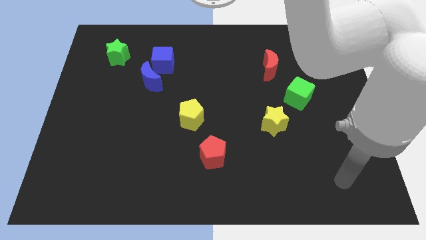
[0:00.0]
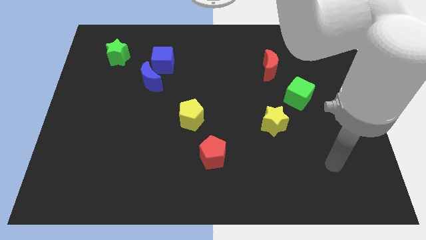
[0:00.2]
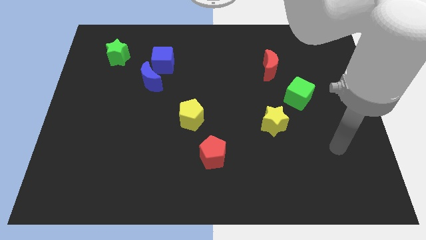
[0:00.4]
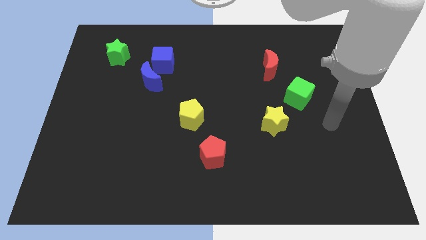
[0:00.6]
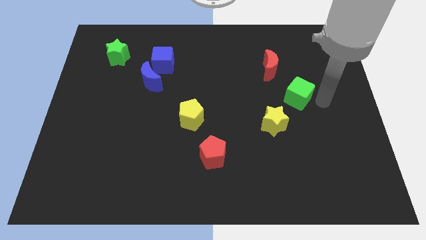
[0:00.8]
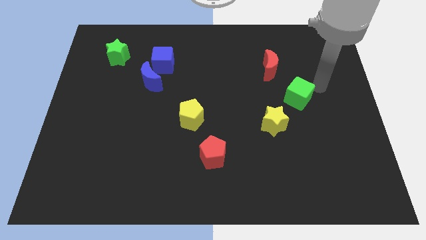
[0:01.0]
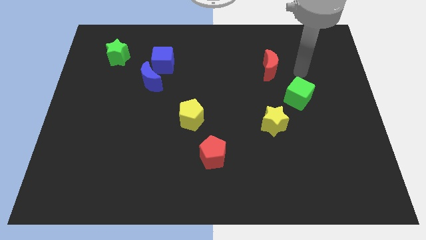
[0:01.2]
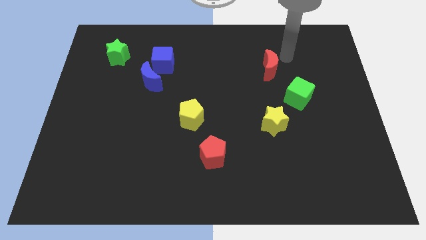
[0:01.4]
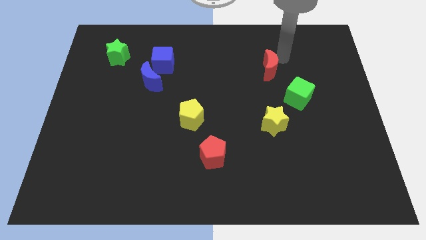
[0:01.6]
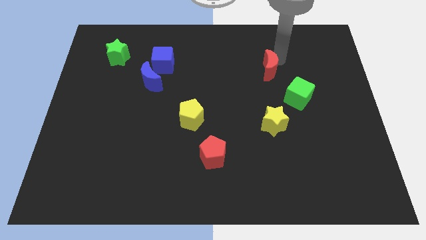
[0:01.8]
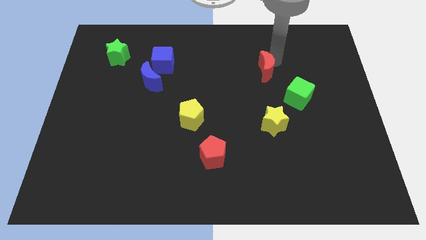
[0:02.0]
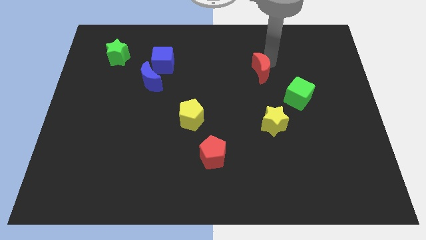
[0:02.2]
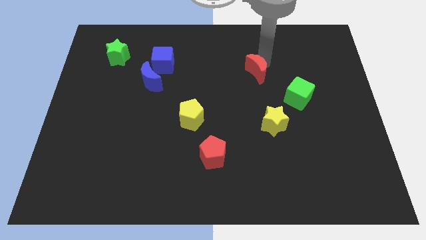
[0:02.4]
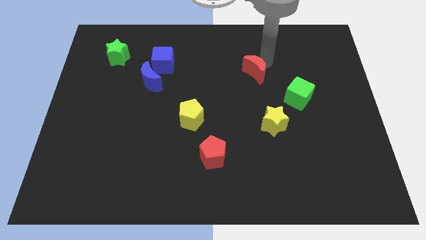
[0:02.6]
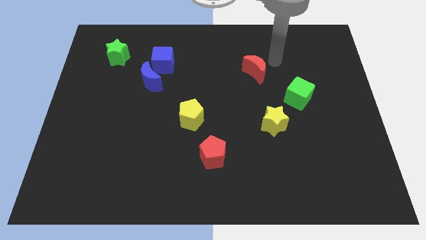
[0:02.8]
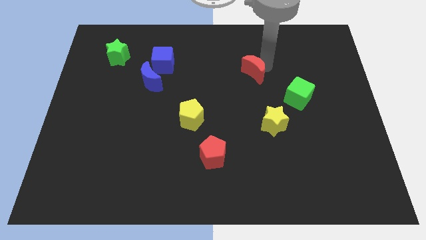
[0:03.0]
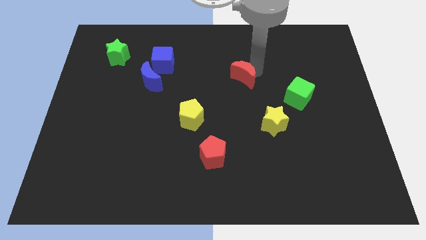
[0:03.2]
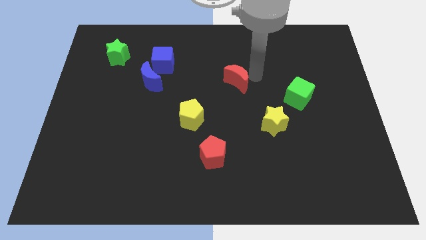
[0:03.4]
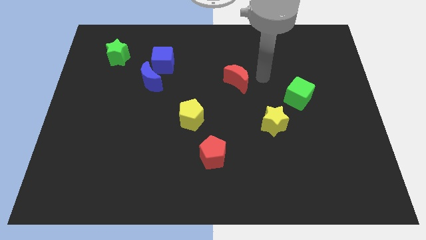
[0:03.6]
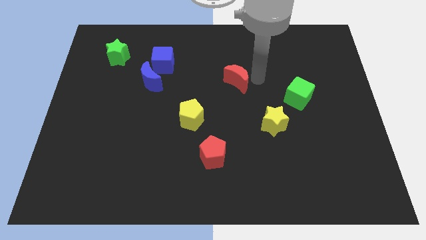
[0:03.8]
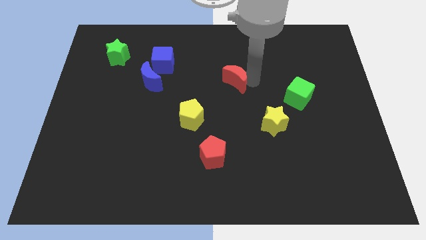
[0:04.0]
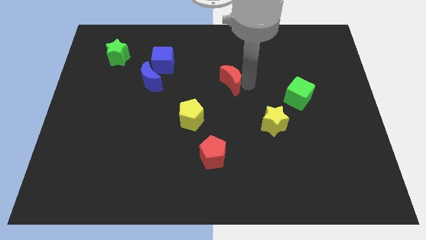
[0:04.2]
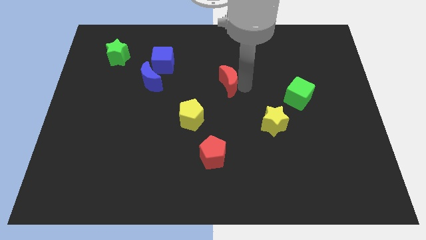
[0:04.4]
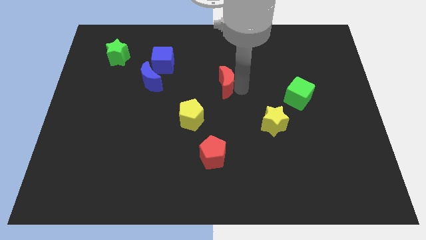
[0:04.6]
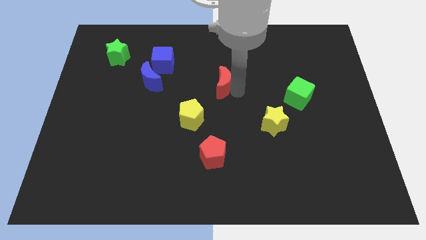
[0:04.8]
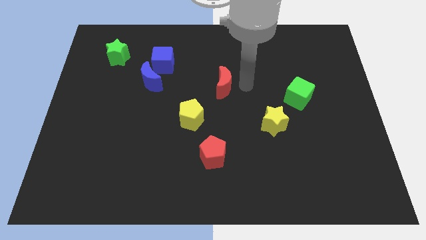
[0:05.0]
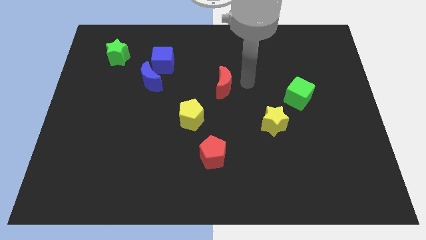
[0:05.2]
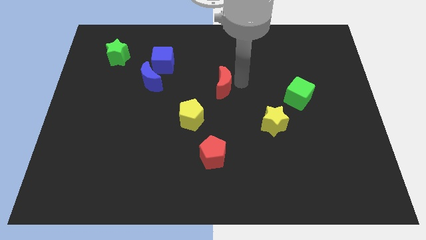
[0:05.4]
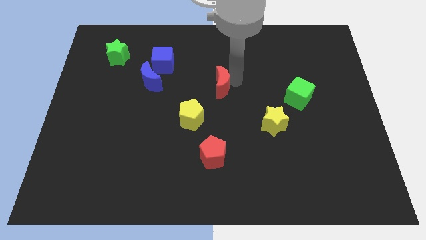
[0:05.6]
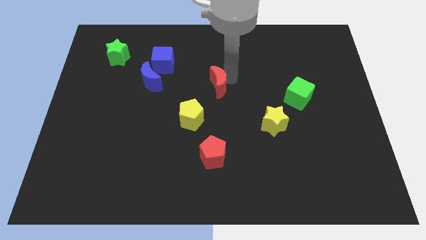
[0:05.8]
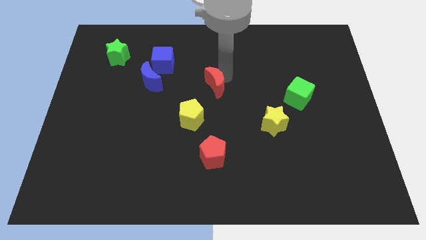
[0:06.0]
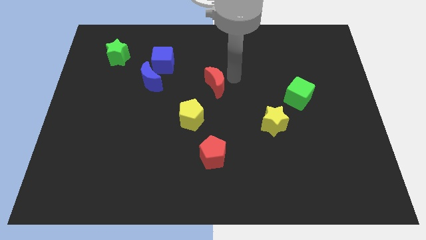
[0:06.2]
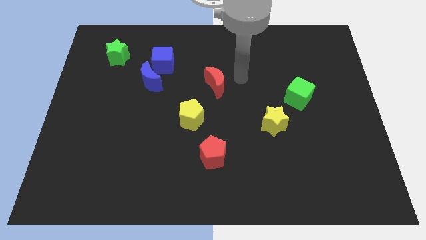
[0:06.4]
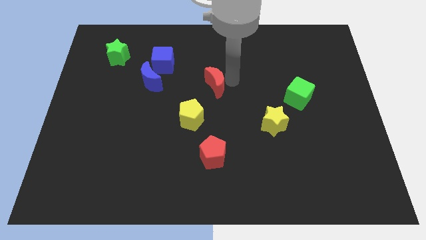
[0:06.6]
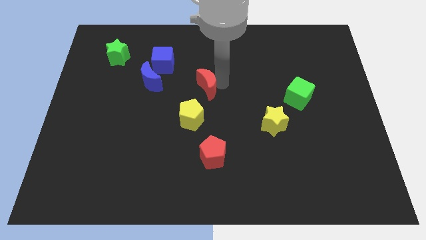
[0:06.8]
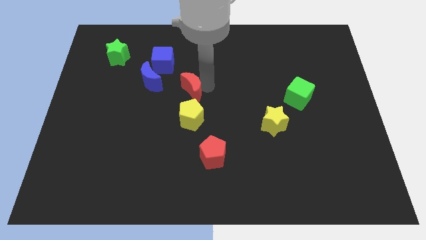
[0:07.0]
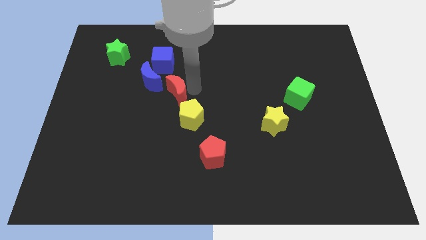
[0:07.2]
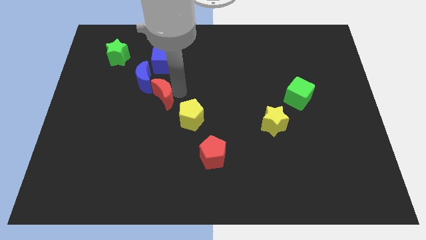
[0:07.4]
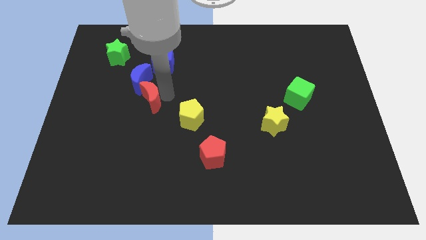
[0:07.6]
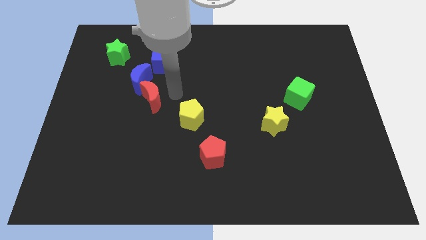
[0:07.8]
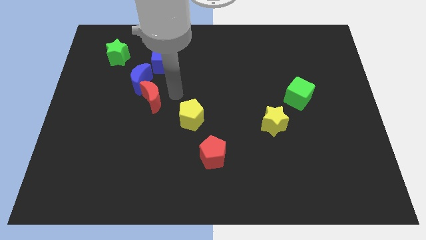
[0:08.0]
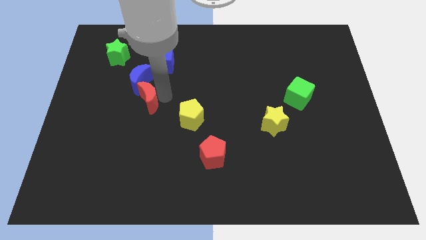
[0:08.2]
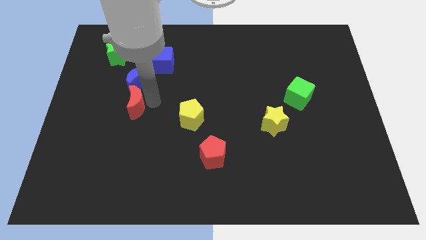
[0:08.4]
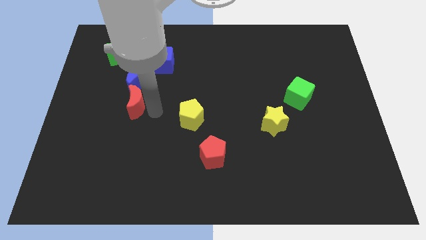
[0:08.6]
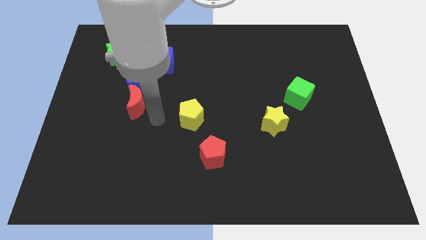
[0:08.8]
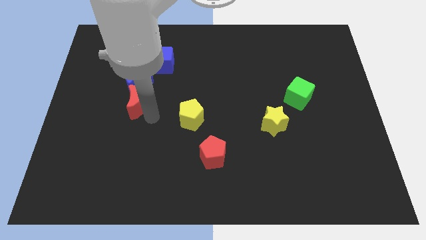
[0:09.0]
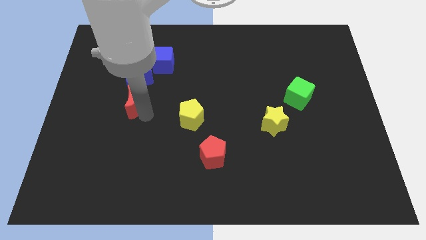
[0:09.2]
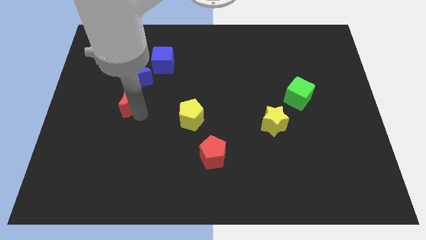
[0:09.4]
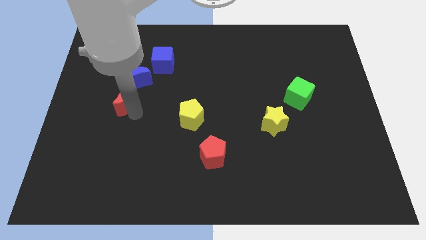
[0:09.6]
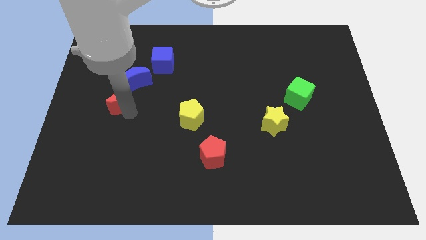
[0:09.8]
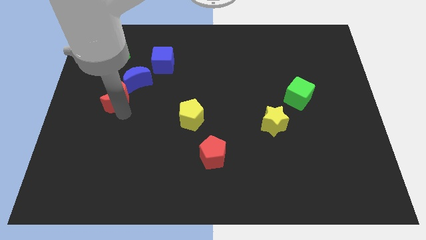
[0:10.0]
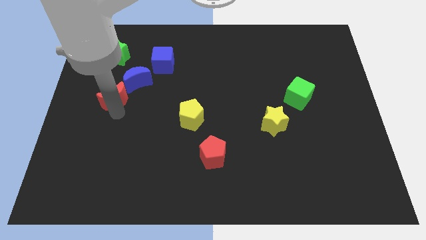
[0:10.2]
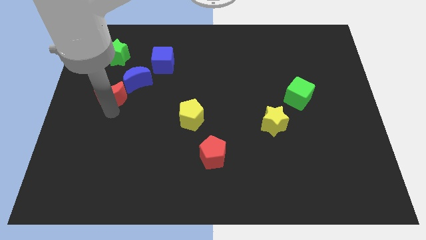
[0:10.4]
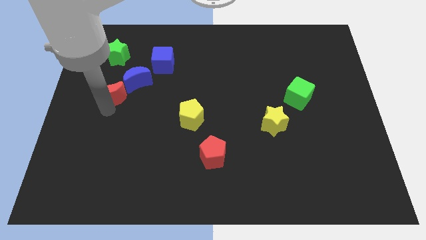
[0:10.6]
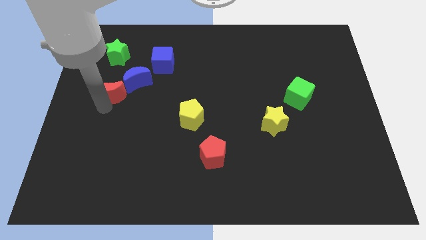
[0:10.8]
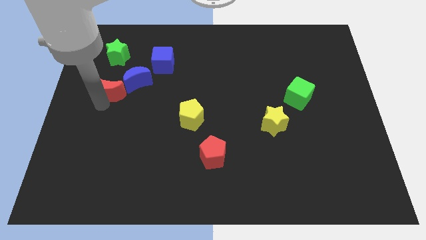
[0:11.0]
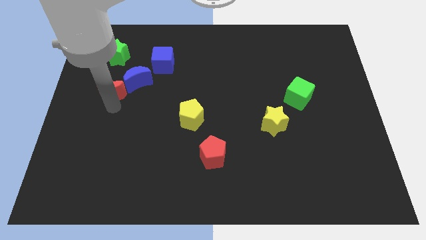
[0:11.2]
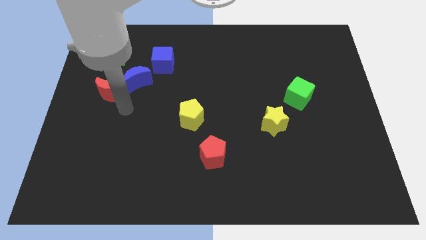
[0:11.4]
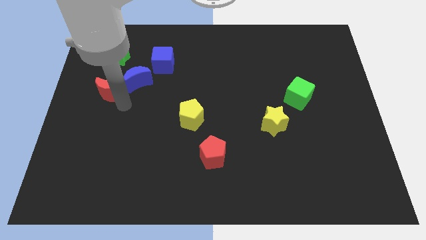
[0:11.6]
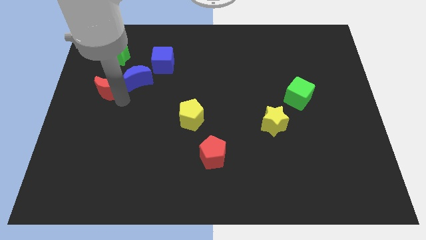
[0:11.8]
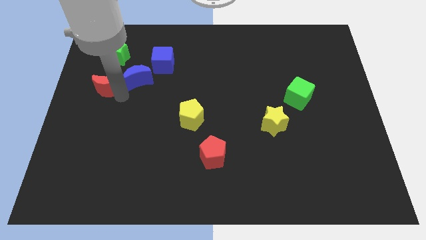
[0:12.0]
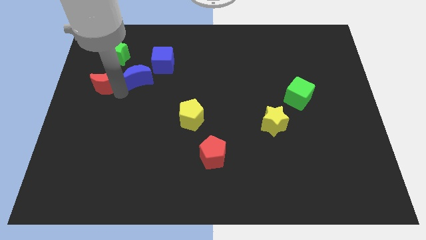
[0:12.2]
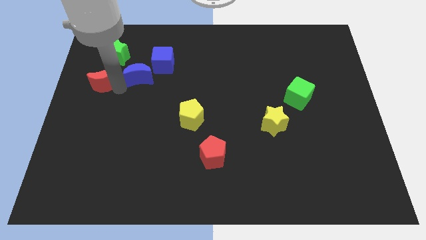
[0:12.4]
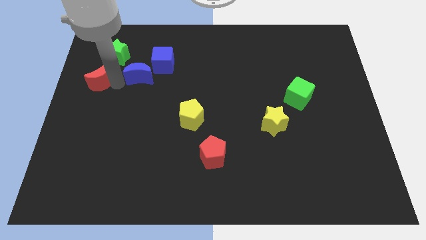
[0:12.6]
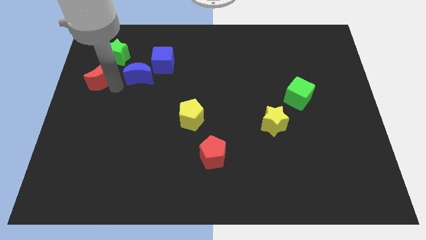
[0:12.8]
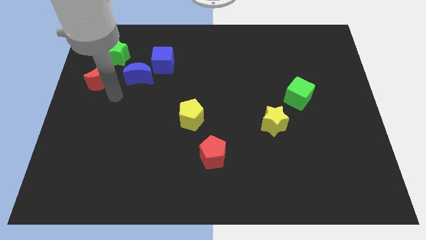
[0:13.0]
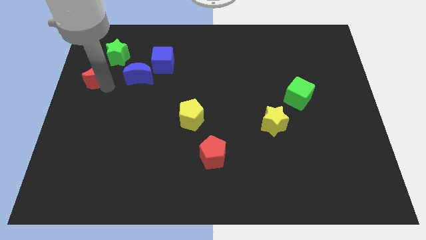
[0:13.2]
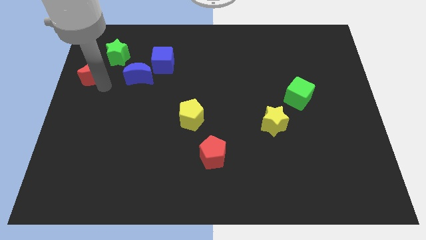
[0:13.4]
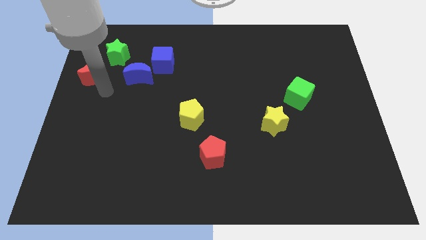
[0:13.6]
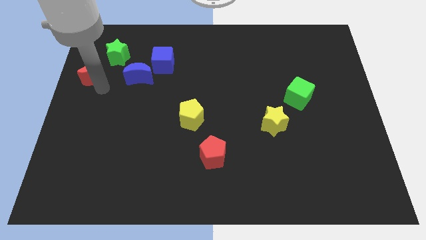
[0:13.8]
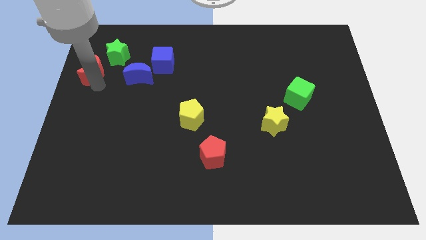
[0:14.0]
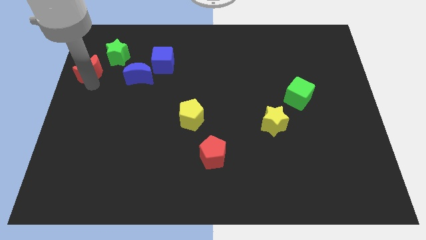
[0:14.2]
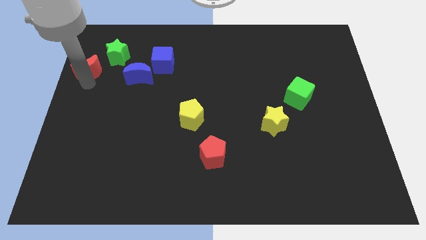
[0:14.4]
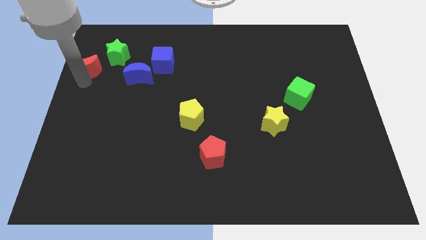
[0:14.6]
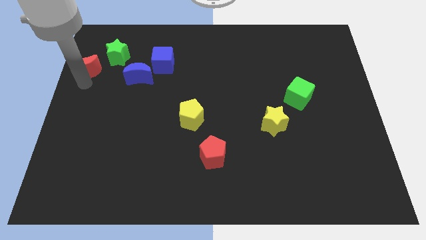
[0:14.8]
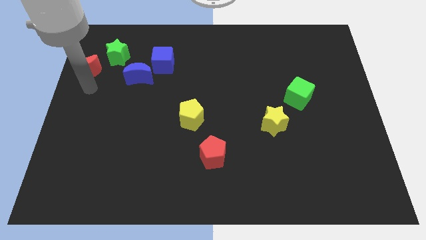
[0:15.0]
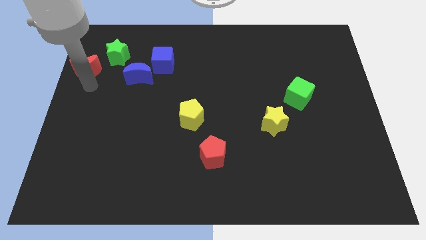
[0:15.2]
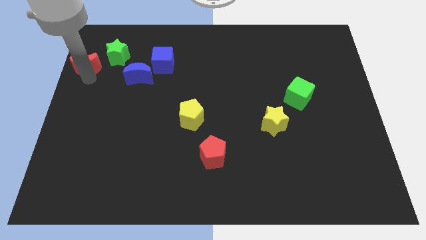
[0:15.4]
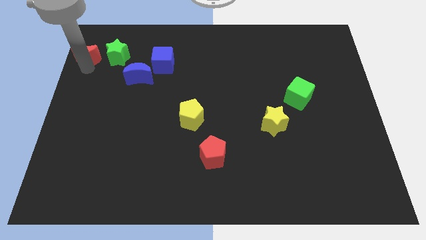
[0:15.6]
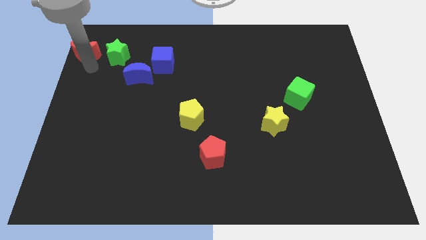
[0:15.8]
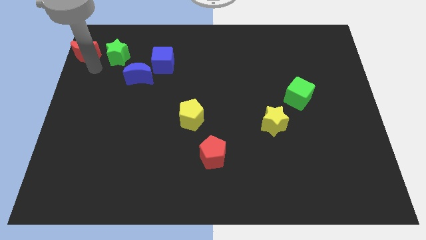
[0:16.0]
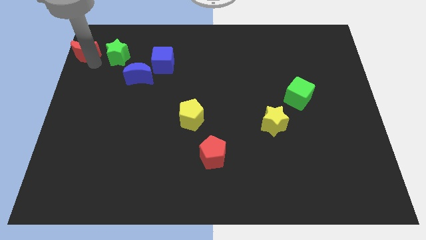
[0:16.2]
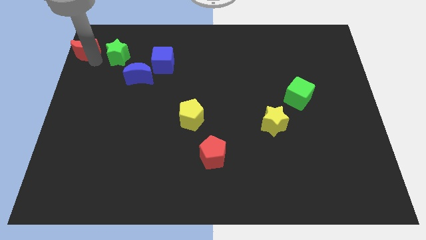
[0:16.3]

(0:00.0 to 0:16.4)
move the red moon to the top left
